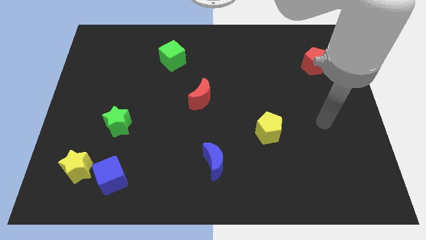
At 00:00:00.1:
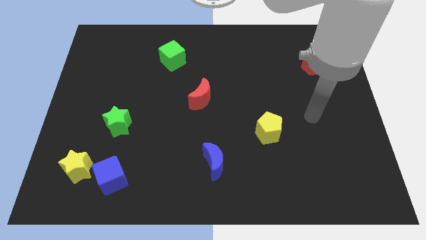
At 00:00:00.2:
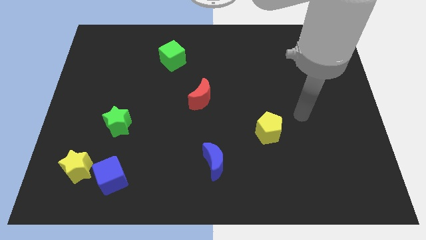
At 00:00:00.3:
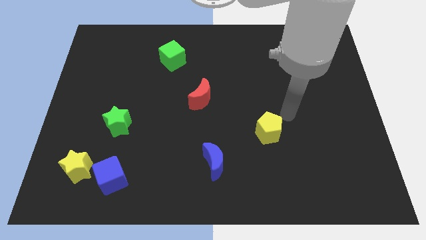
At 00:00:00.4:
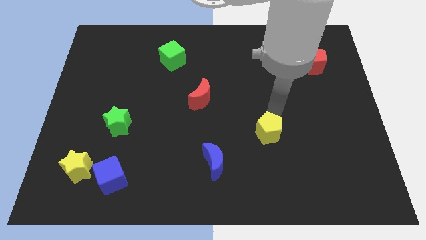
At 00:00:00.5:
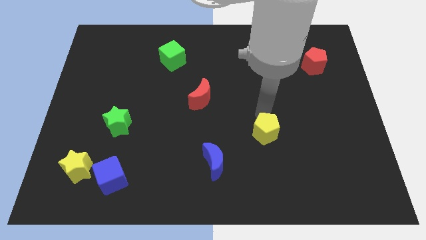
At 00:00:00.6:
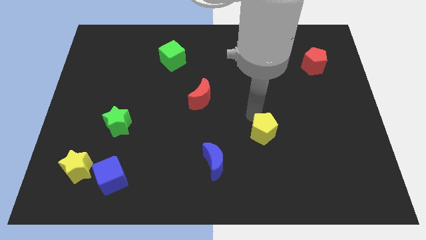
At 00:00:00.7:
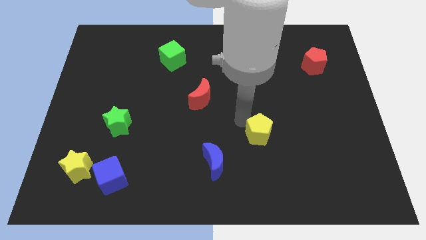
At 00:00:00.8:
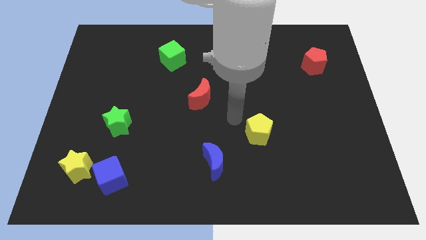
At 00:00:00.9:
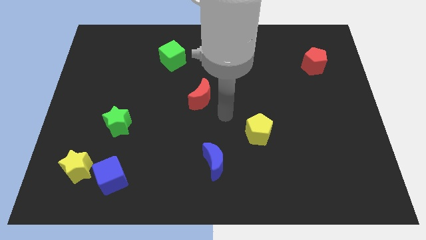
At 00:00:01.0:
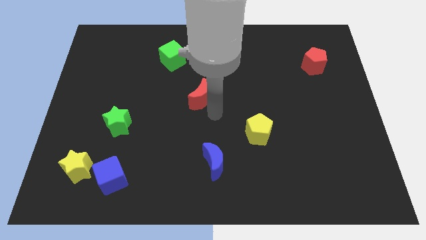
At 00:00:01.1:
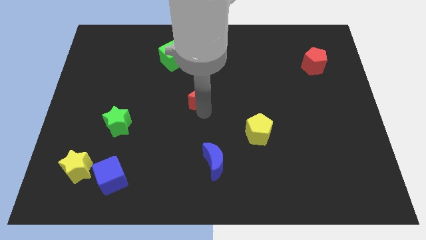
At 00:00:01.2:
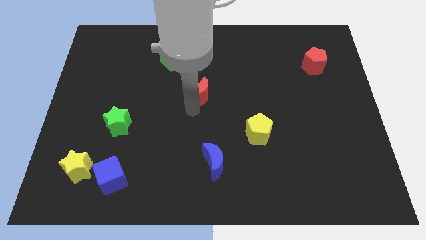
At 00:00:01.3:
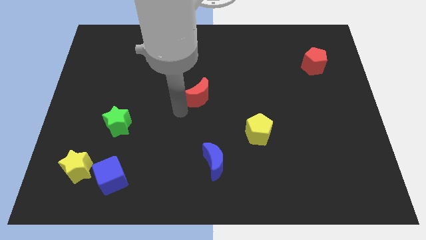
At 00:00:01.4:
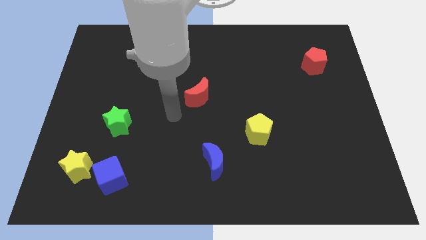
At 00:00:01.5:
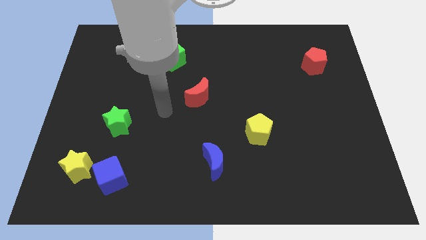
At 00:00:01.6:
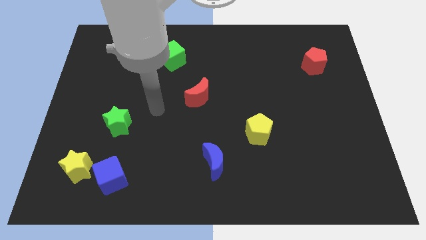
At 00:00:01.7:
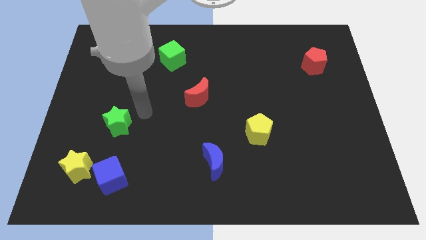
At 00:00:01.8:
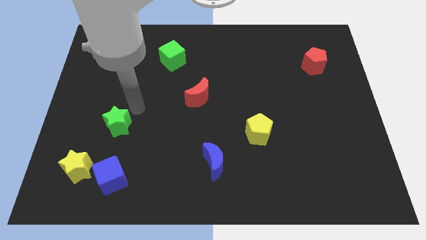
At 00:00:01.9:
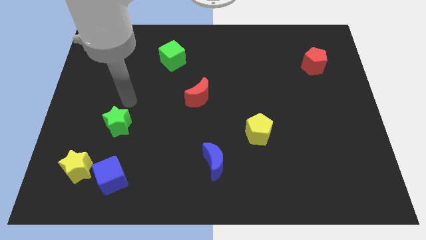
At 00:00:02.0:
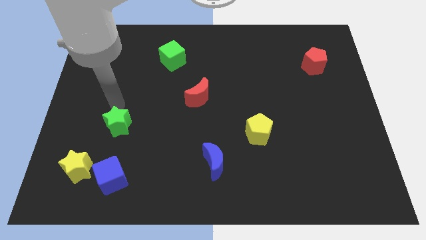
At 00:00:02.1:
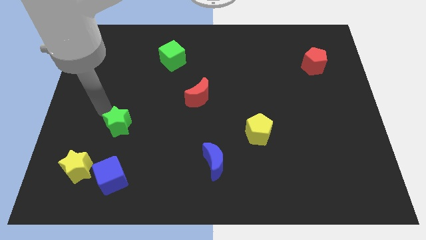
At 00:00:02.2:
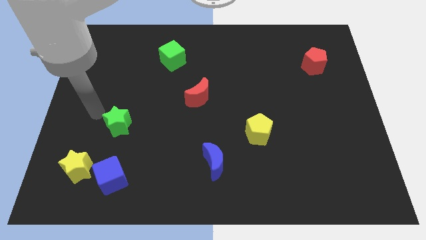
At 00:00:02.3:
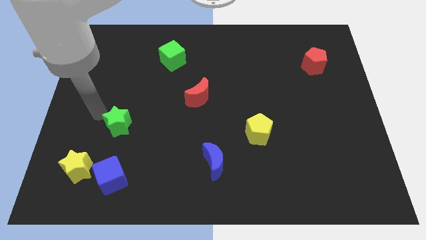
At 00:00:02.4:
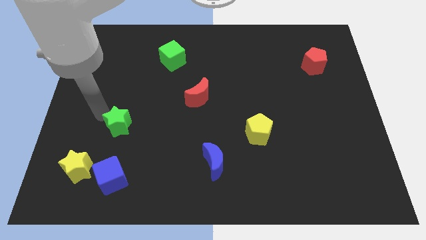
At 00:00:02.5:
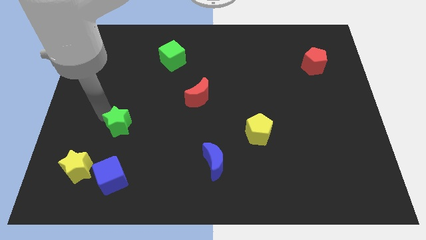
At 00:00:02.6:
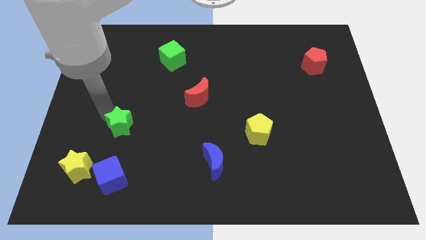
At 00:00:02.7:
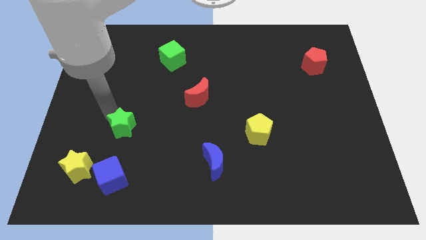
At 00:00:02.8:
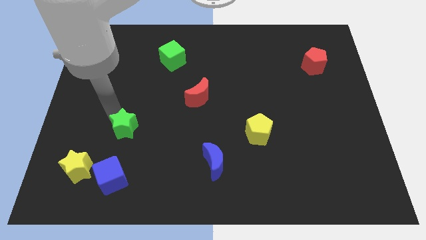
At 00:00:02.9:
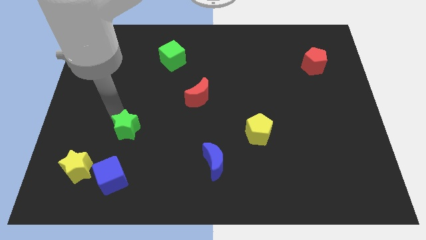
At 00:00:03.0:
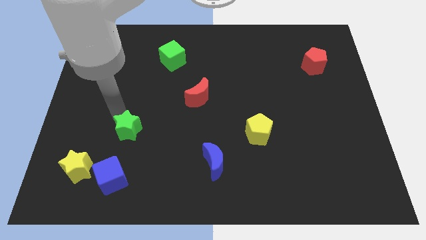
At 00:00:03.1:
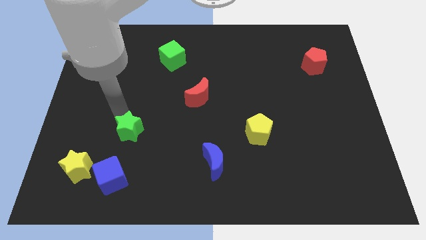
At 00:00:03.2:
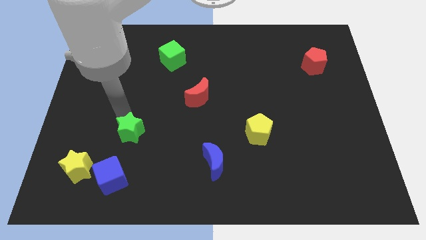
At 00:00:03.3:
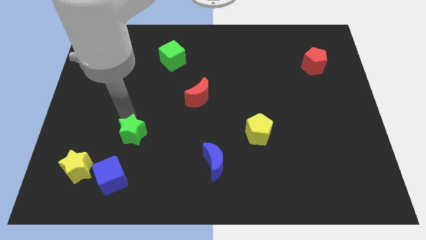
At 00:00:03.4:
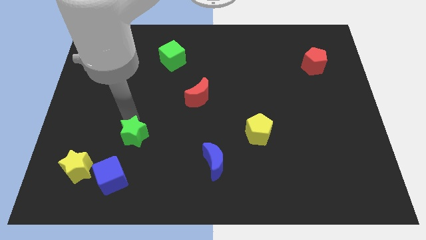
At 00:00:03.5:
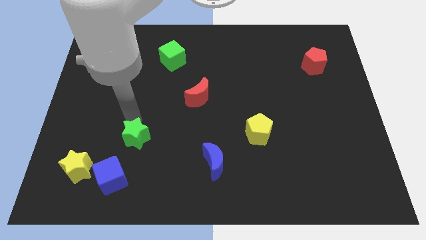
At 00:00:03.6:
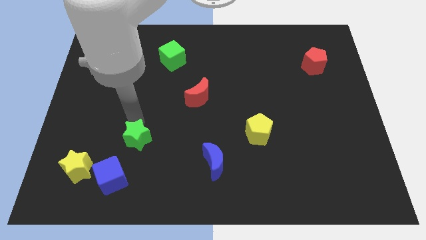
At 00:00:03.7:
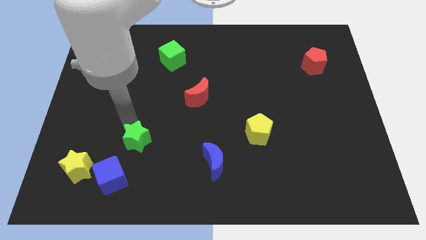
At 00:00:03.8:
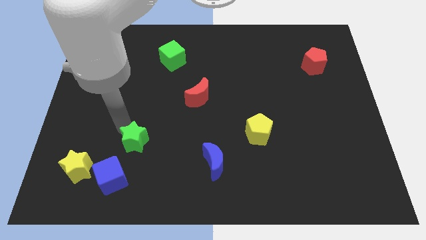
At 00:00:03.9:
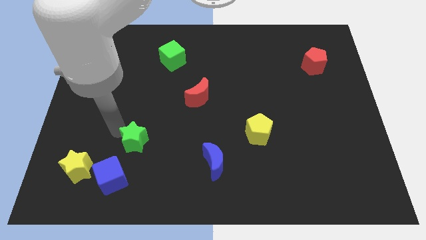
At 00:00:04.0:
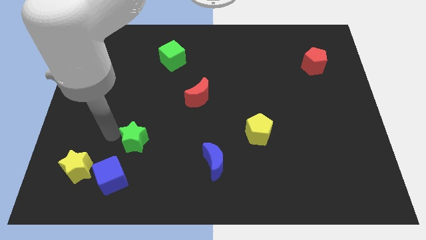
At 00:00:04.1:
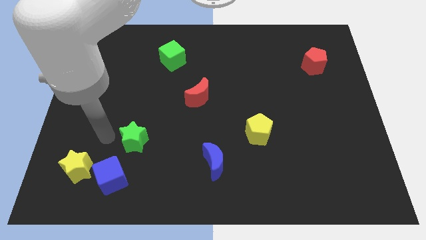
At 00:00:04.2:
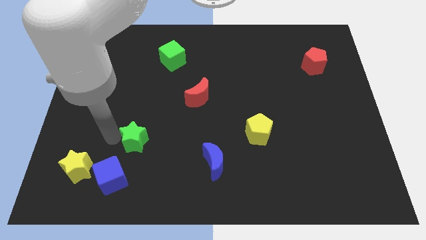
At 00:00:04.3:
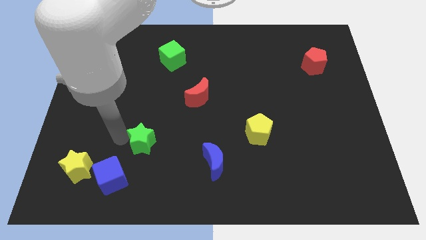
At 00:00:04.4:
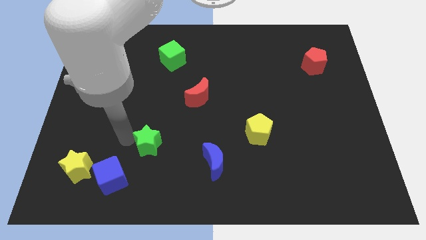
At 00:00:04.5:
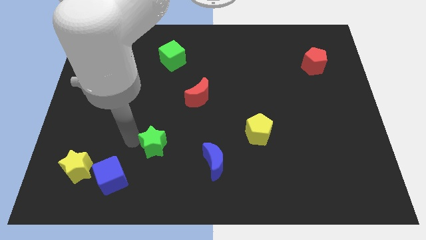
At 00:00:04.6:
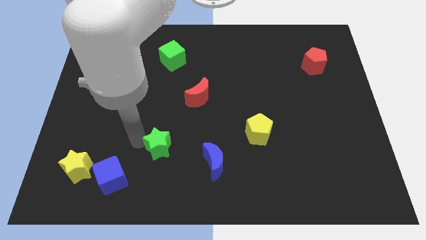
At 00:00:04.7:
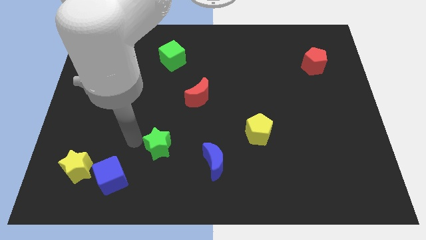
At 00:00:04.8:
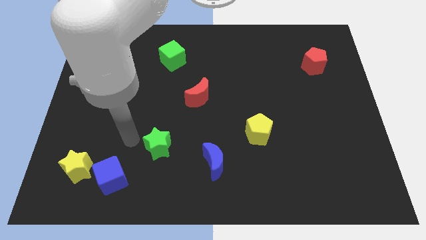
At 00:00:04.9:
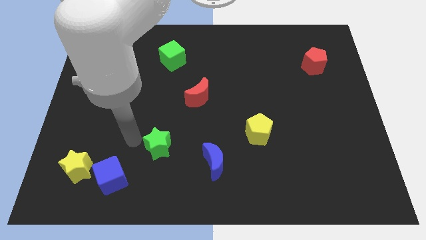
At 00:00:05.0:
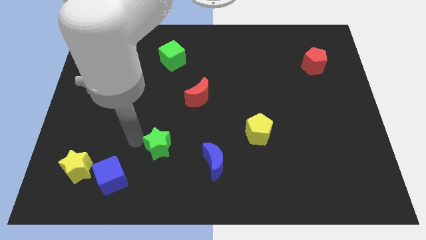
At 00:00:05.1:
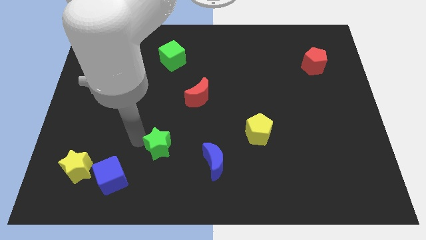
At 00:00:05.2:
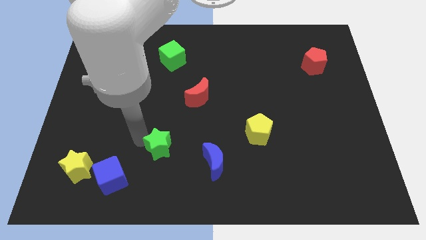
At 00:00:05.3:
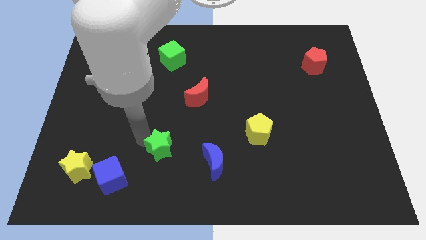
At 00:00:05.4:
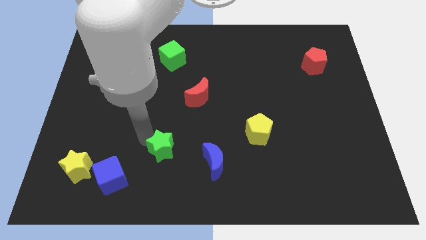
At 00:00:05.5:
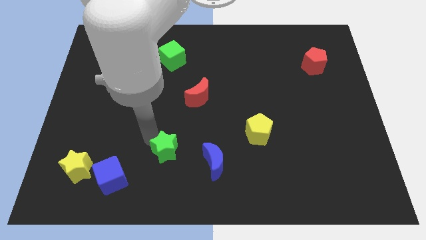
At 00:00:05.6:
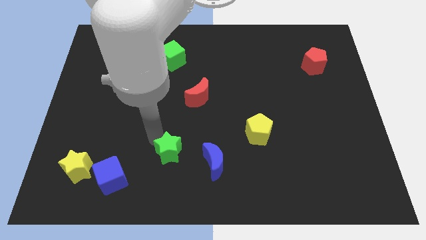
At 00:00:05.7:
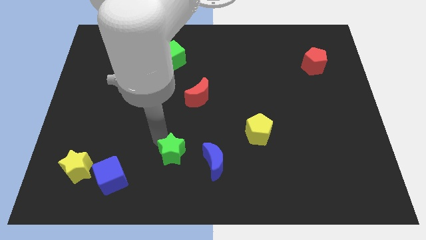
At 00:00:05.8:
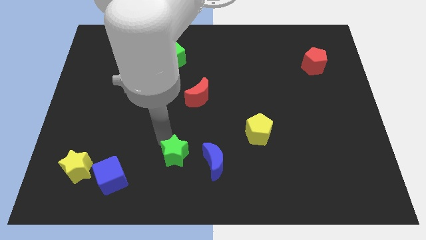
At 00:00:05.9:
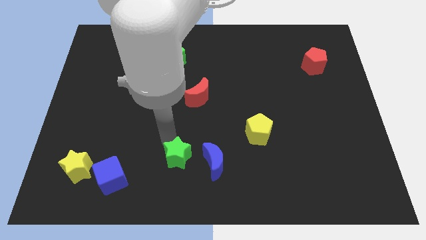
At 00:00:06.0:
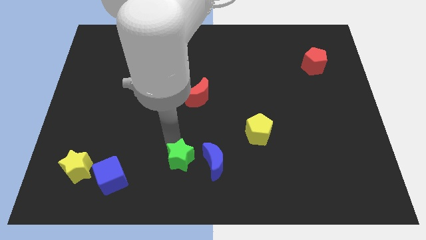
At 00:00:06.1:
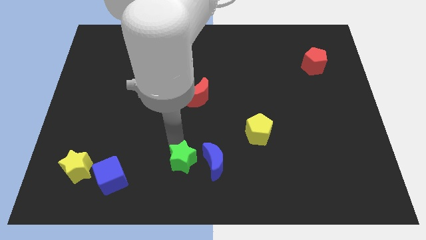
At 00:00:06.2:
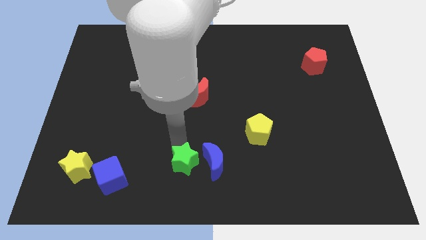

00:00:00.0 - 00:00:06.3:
slide the green star towards the blue moon
